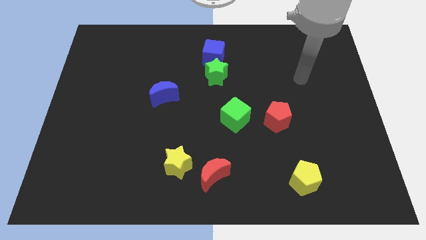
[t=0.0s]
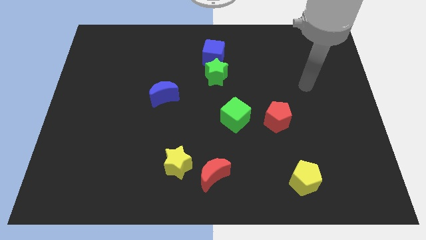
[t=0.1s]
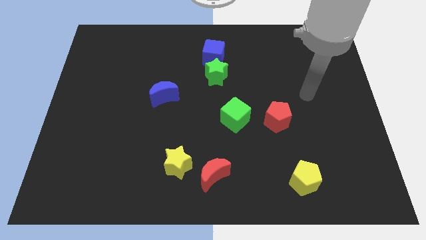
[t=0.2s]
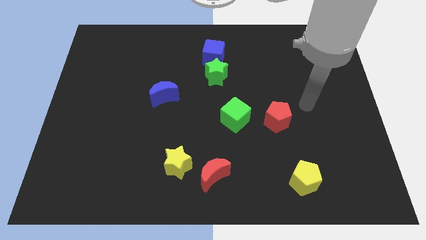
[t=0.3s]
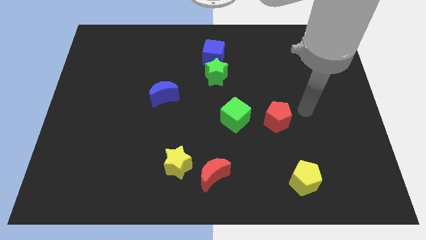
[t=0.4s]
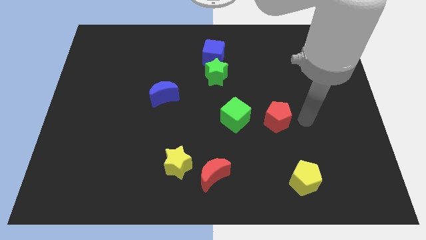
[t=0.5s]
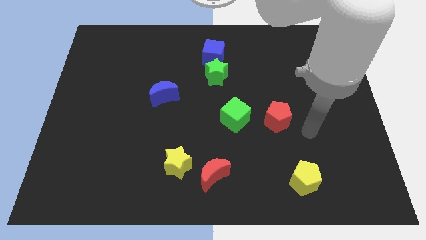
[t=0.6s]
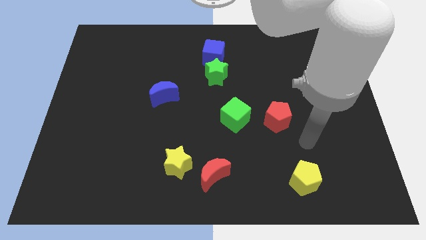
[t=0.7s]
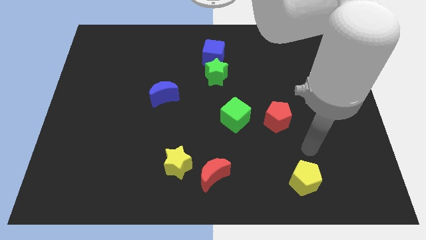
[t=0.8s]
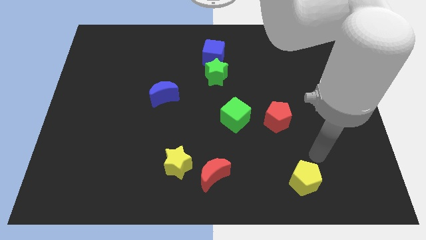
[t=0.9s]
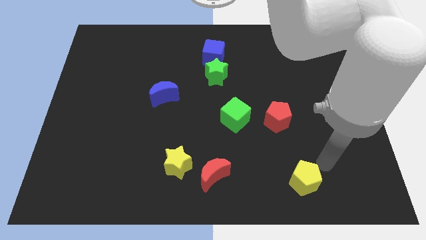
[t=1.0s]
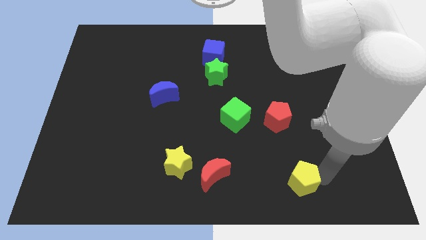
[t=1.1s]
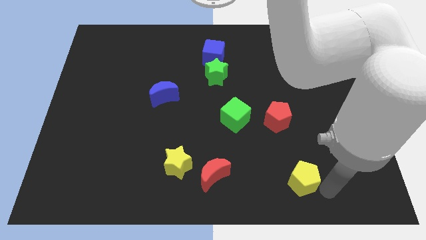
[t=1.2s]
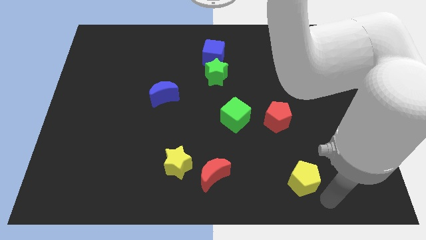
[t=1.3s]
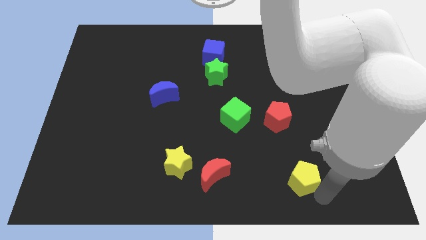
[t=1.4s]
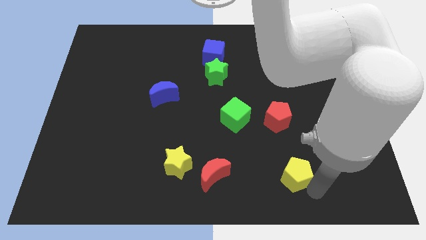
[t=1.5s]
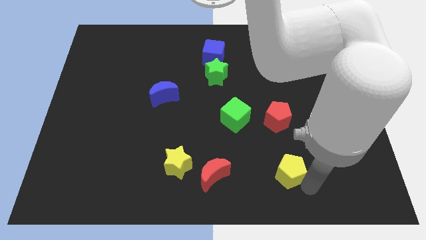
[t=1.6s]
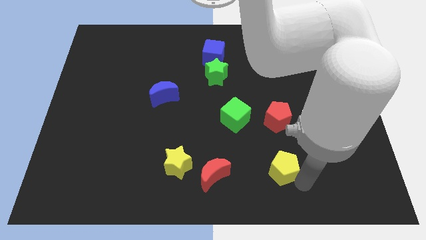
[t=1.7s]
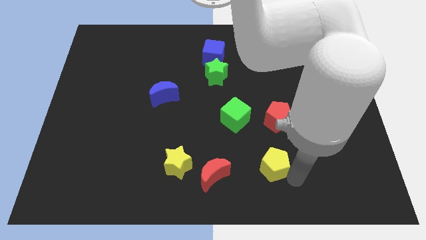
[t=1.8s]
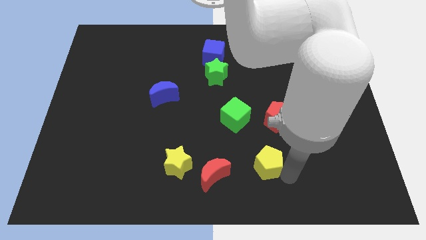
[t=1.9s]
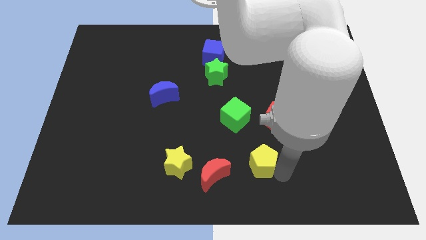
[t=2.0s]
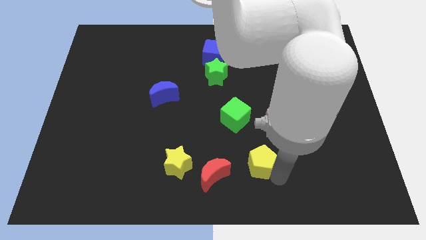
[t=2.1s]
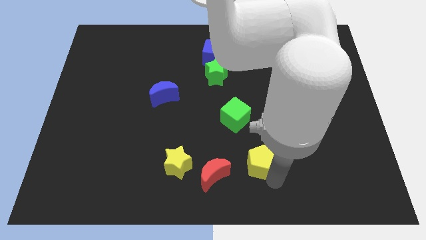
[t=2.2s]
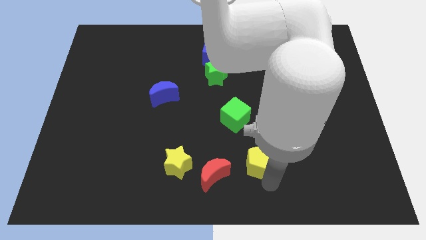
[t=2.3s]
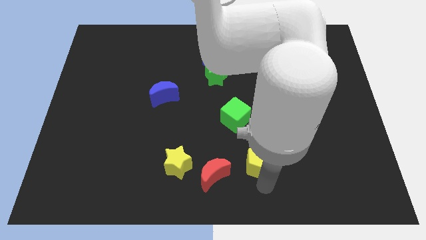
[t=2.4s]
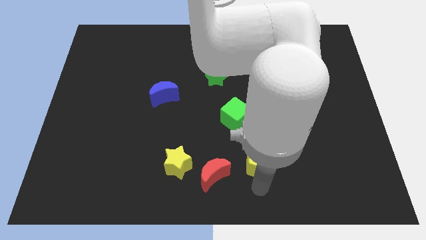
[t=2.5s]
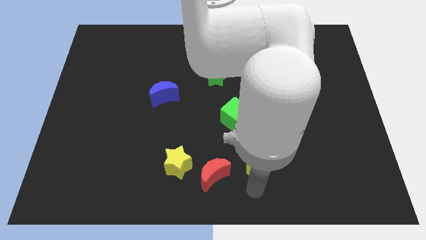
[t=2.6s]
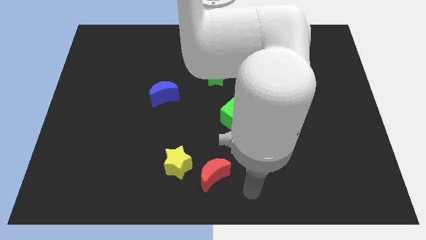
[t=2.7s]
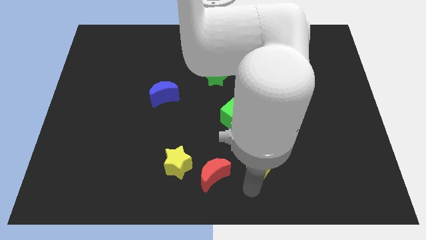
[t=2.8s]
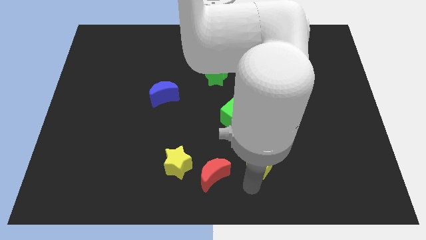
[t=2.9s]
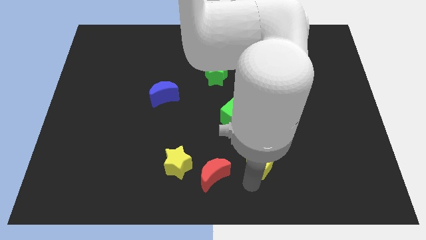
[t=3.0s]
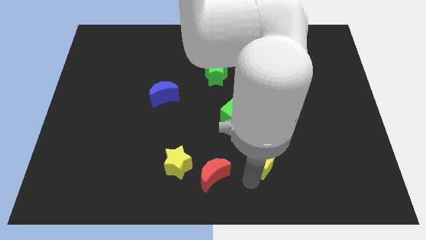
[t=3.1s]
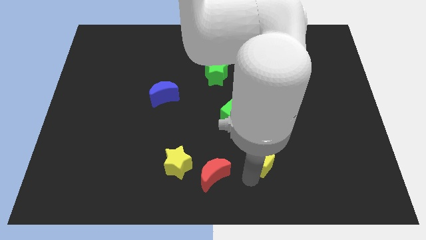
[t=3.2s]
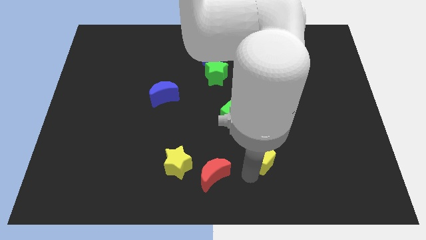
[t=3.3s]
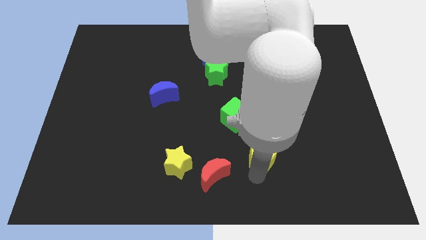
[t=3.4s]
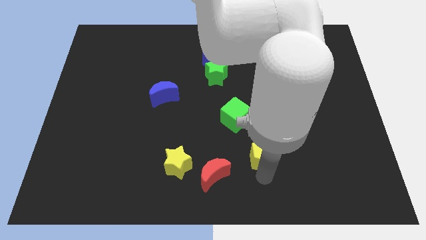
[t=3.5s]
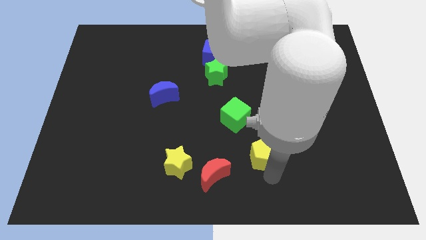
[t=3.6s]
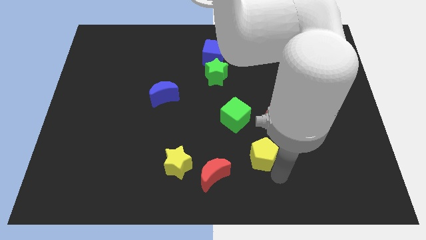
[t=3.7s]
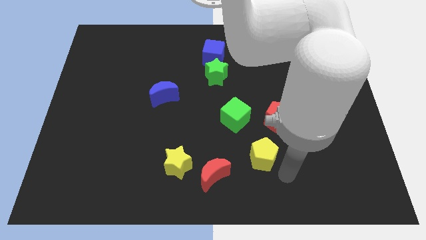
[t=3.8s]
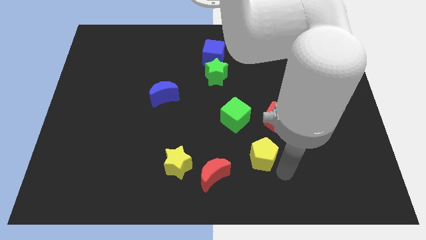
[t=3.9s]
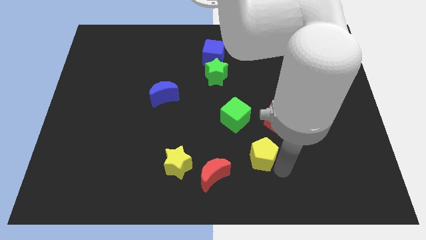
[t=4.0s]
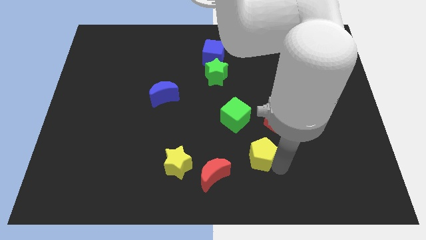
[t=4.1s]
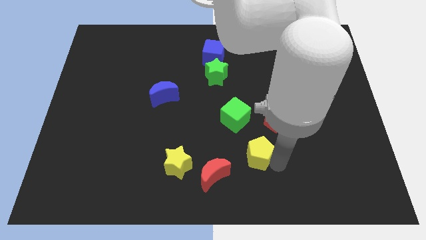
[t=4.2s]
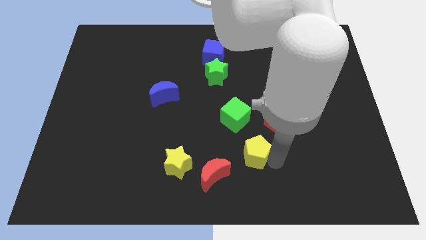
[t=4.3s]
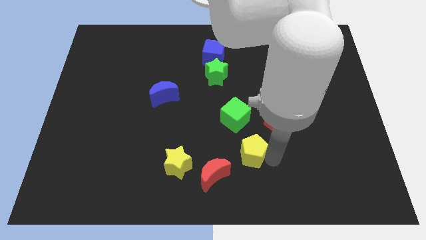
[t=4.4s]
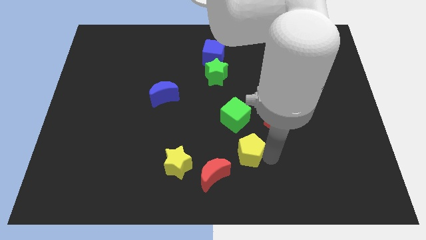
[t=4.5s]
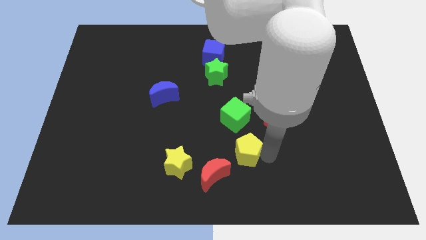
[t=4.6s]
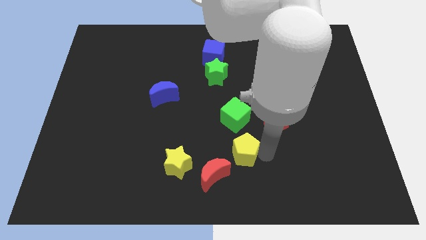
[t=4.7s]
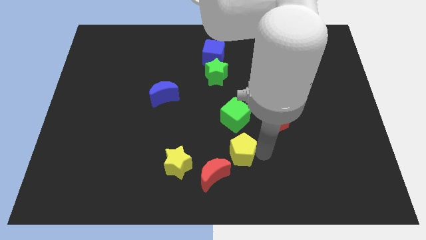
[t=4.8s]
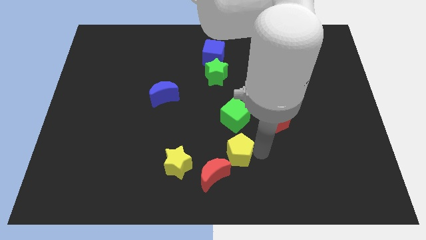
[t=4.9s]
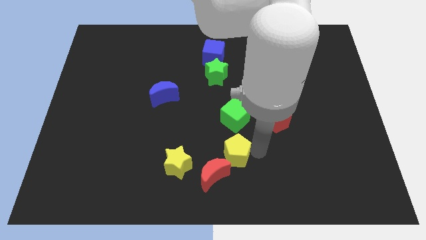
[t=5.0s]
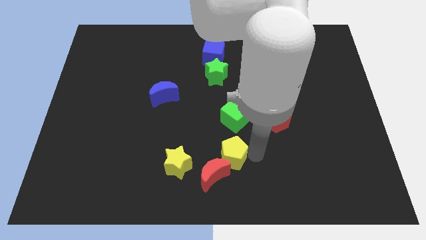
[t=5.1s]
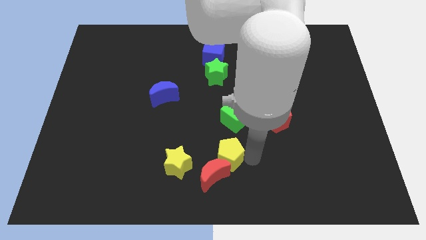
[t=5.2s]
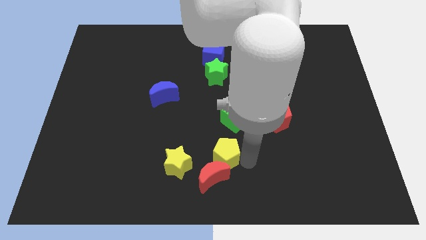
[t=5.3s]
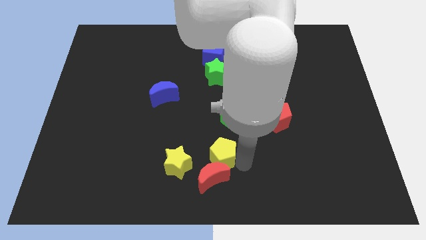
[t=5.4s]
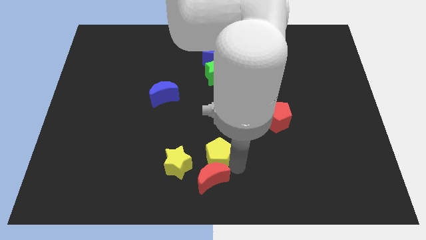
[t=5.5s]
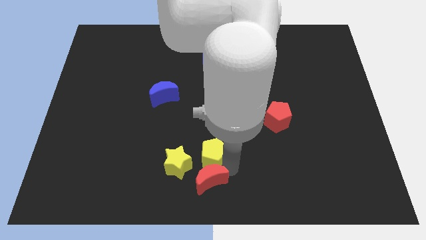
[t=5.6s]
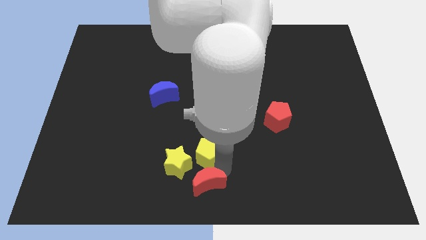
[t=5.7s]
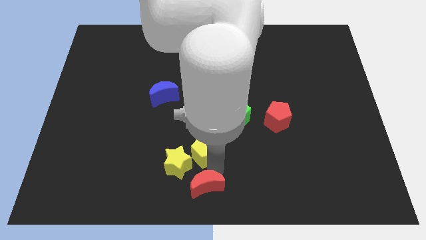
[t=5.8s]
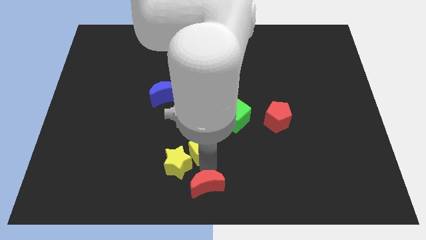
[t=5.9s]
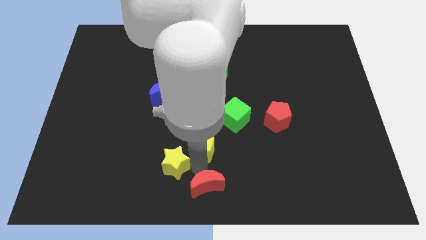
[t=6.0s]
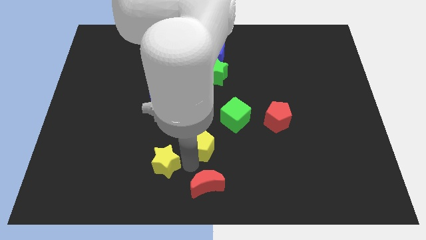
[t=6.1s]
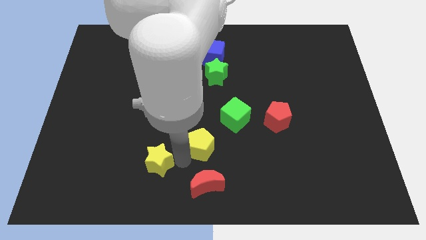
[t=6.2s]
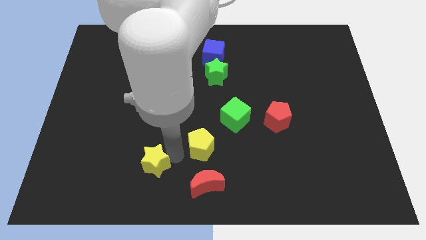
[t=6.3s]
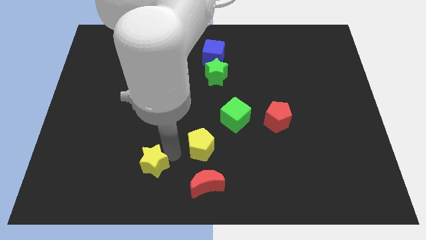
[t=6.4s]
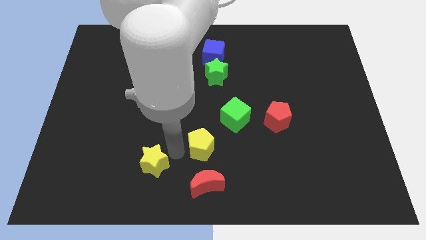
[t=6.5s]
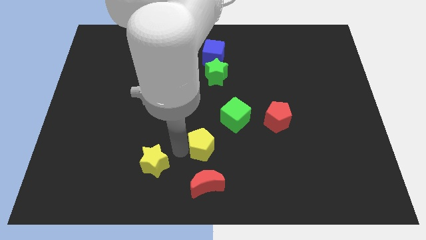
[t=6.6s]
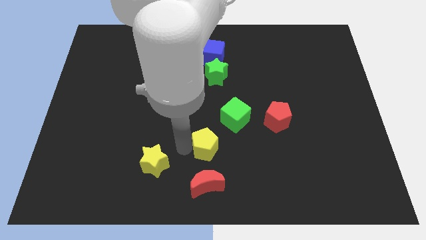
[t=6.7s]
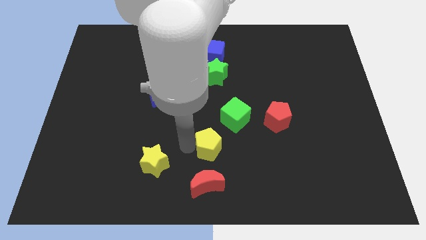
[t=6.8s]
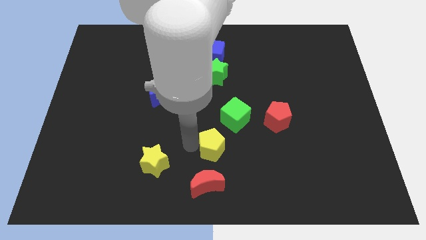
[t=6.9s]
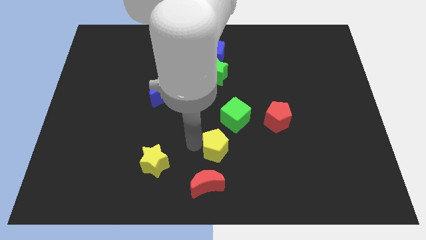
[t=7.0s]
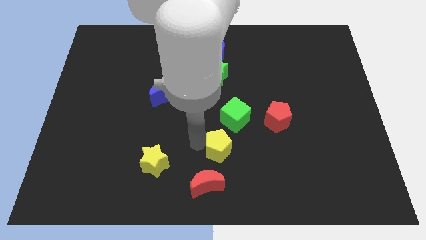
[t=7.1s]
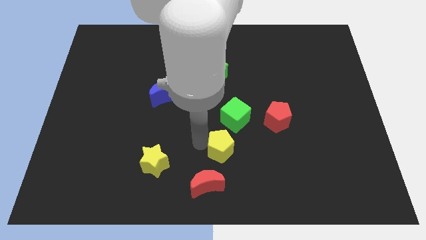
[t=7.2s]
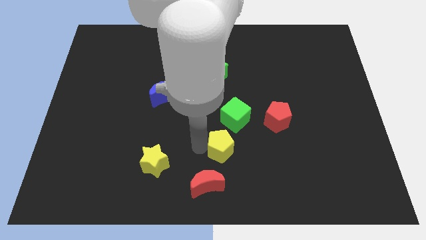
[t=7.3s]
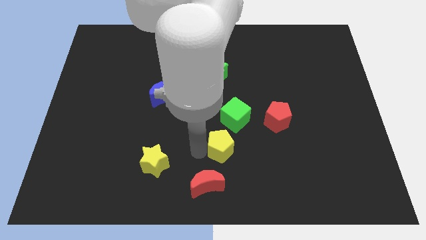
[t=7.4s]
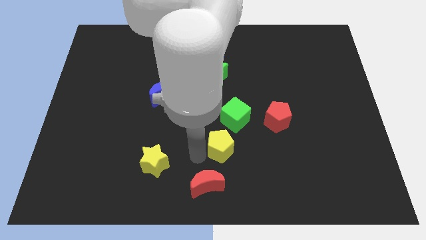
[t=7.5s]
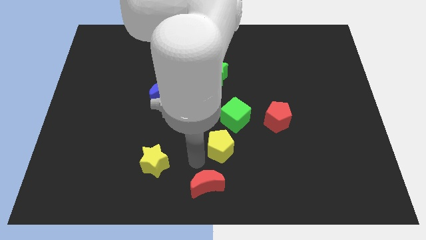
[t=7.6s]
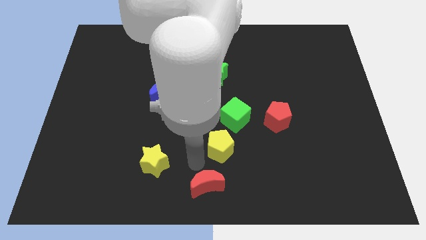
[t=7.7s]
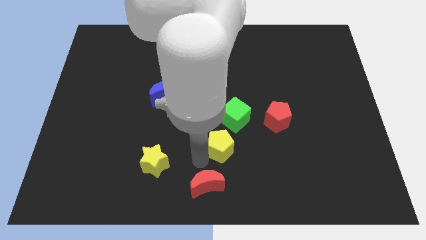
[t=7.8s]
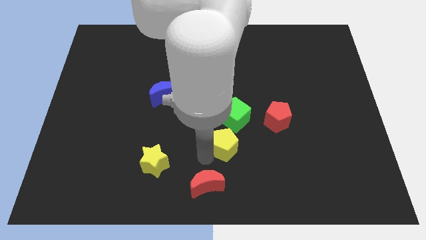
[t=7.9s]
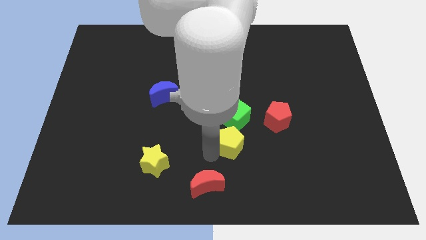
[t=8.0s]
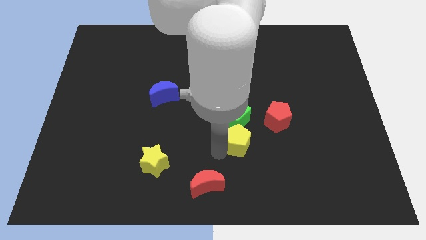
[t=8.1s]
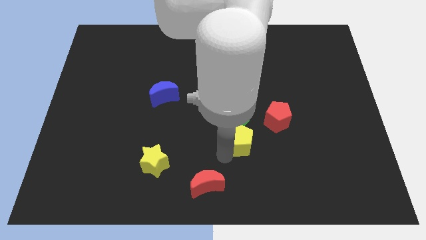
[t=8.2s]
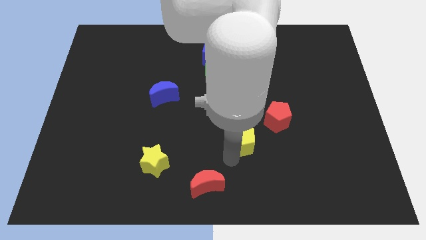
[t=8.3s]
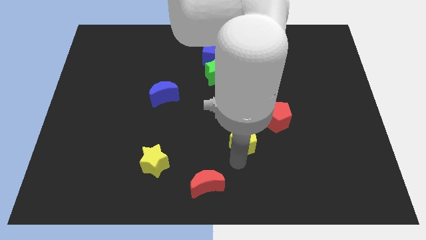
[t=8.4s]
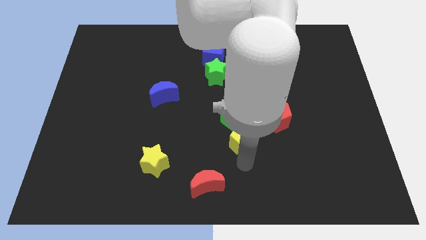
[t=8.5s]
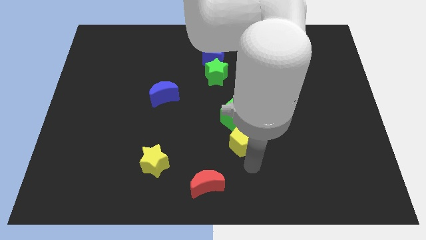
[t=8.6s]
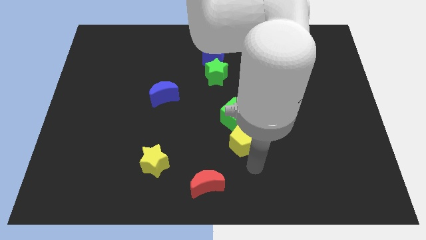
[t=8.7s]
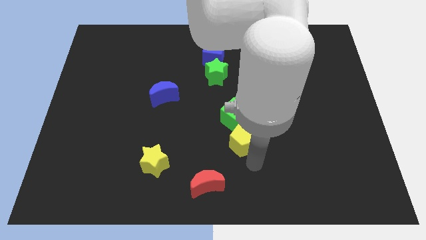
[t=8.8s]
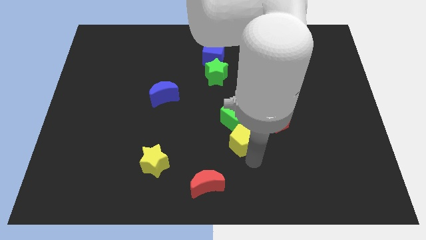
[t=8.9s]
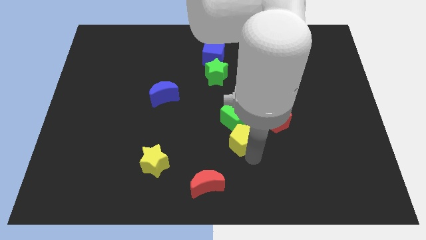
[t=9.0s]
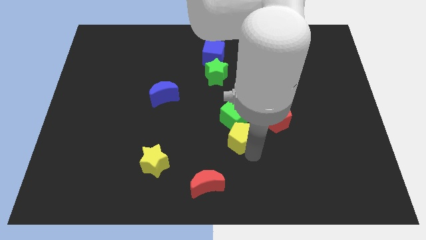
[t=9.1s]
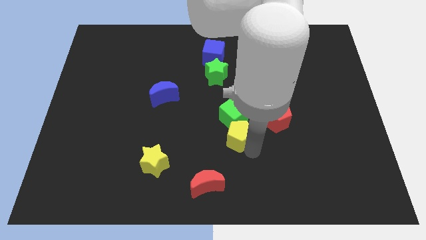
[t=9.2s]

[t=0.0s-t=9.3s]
push the yellow pentagon to the left side of the red pentagon
